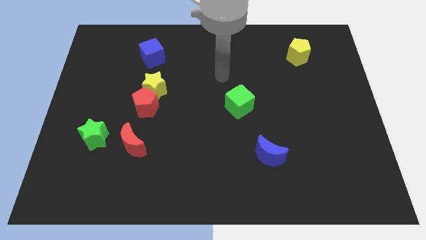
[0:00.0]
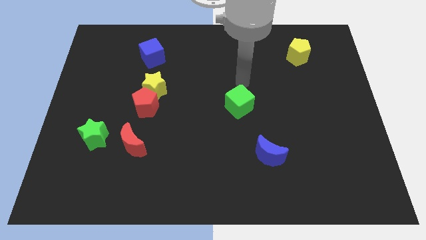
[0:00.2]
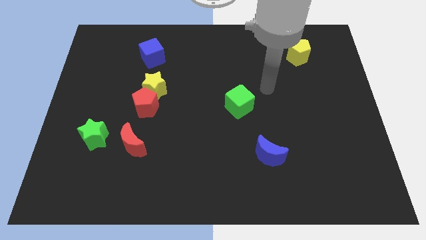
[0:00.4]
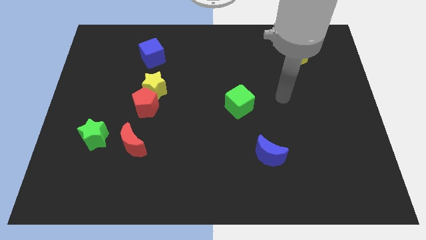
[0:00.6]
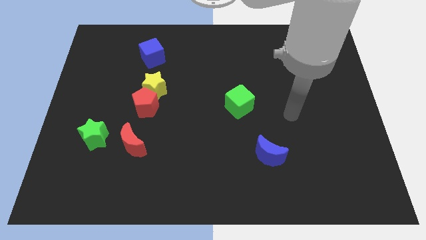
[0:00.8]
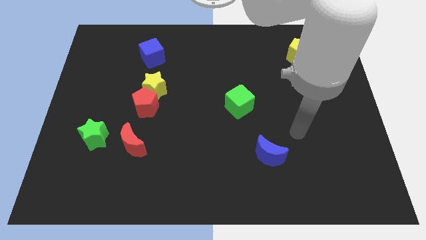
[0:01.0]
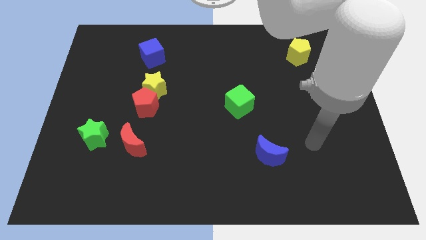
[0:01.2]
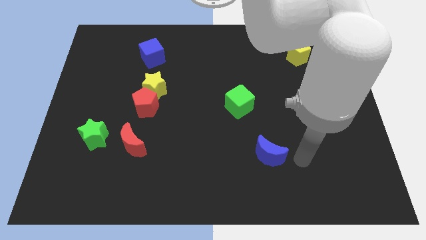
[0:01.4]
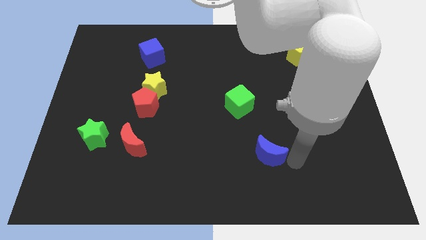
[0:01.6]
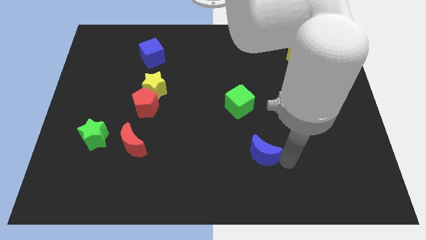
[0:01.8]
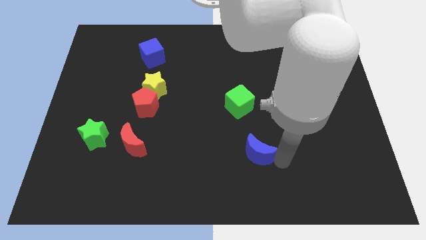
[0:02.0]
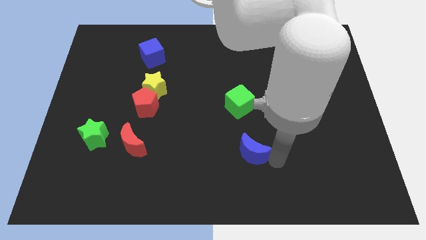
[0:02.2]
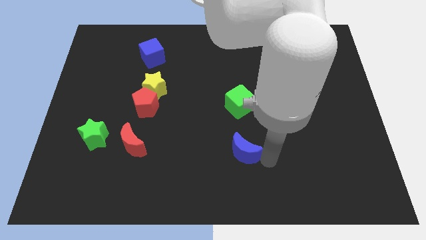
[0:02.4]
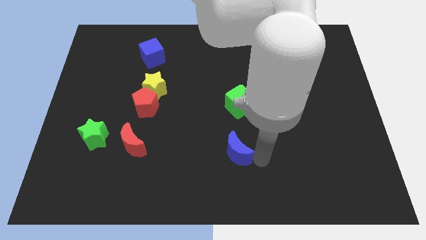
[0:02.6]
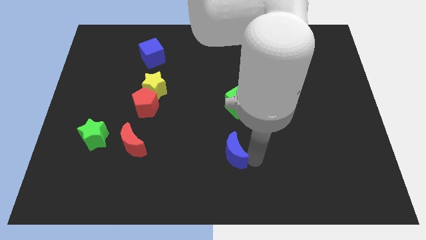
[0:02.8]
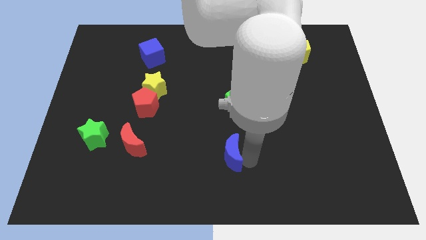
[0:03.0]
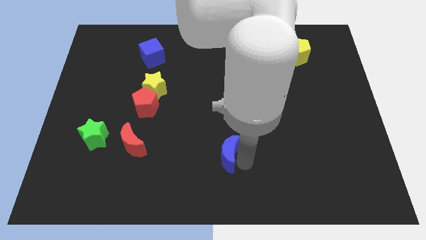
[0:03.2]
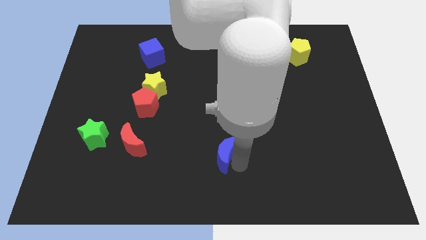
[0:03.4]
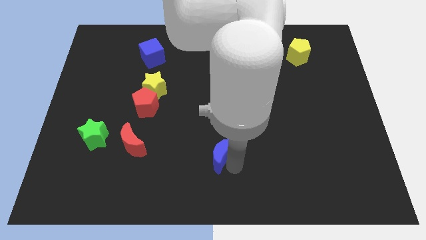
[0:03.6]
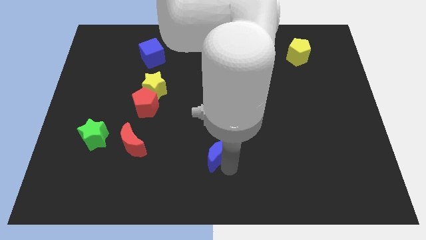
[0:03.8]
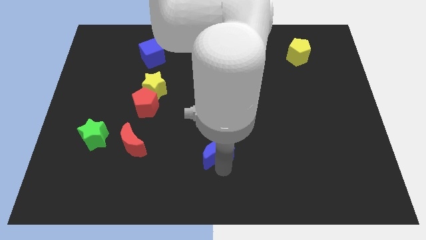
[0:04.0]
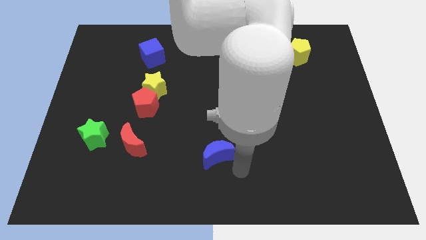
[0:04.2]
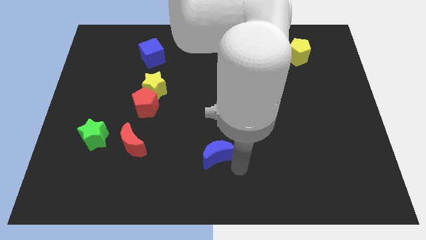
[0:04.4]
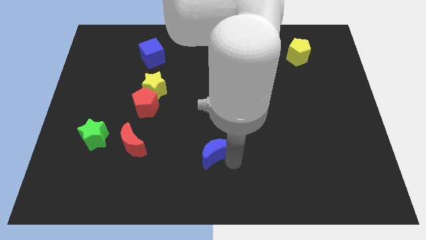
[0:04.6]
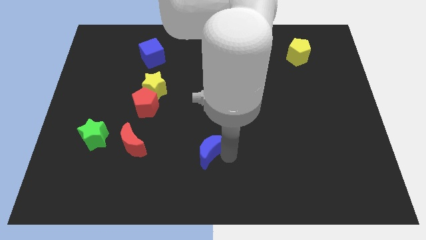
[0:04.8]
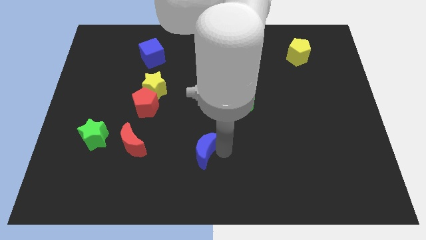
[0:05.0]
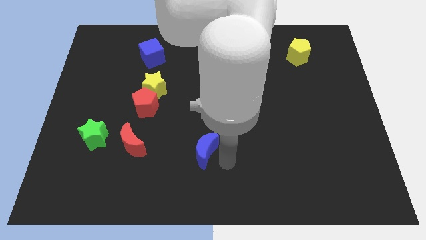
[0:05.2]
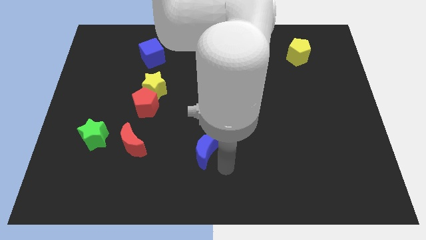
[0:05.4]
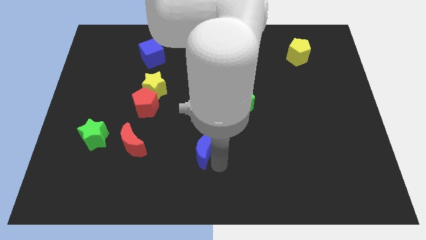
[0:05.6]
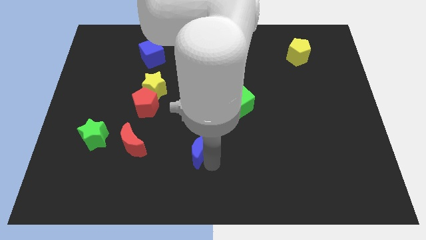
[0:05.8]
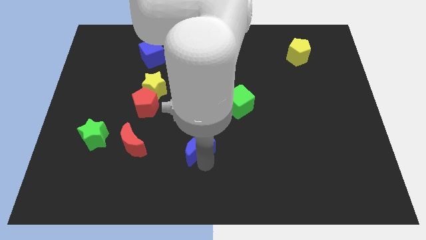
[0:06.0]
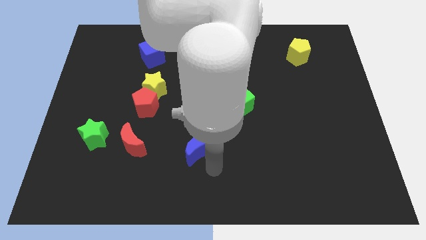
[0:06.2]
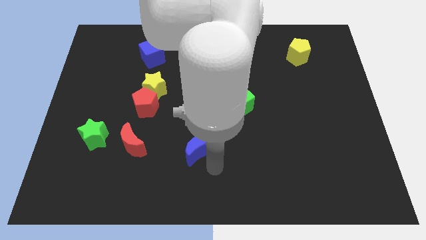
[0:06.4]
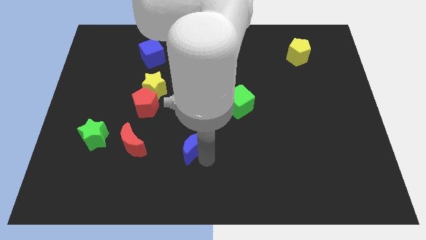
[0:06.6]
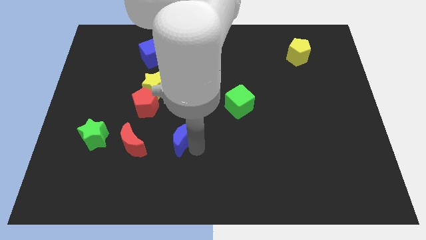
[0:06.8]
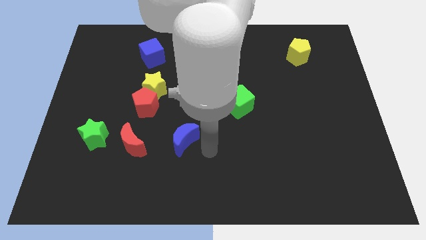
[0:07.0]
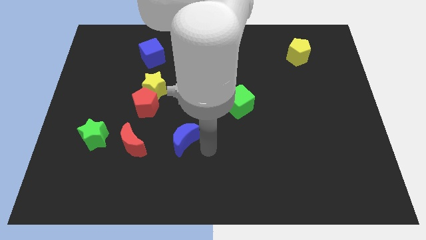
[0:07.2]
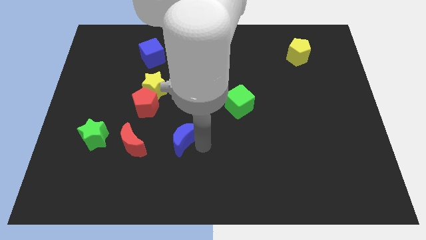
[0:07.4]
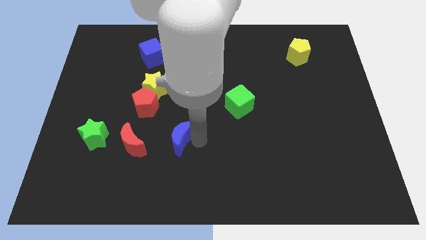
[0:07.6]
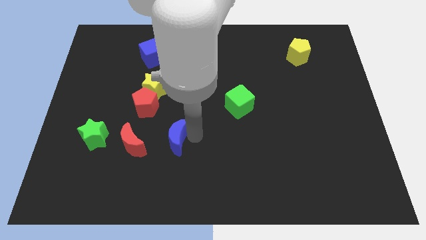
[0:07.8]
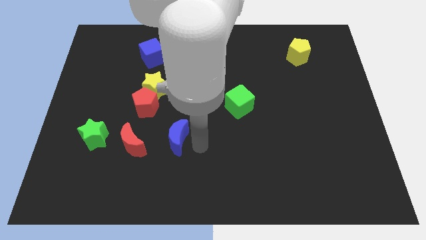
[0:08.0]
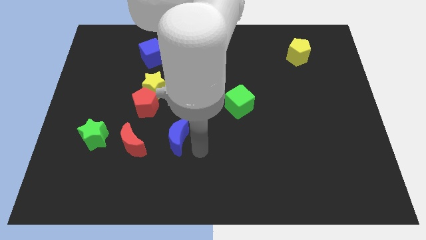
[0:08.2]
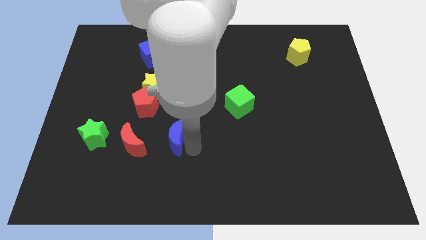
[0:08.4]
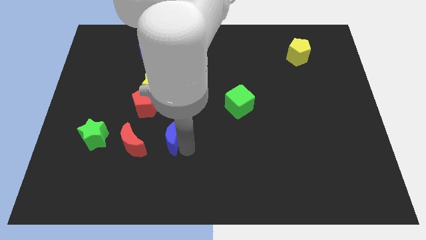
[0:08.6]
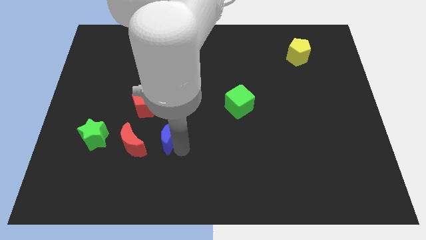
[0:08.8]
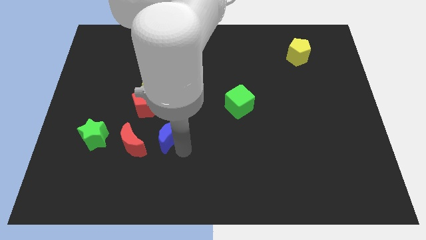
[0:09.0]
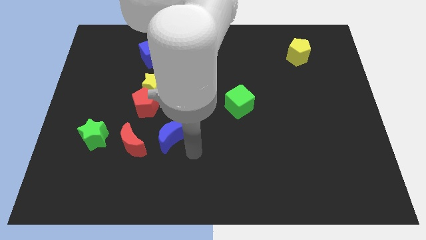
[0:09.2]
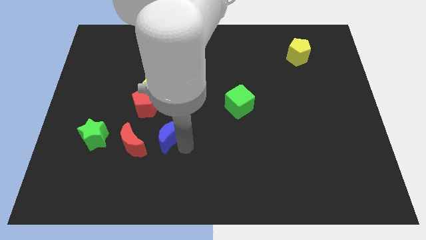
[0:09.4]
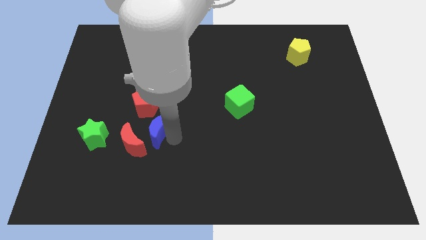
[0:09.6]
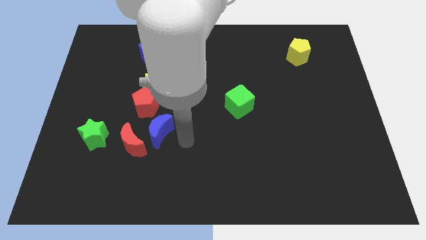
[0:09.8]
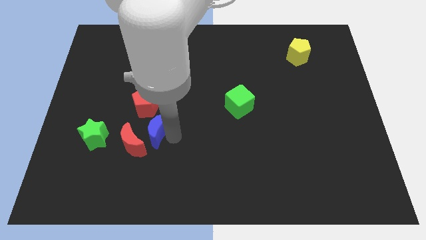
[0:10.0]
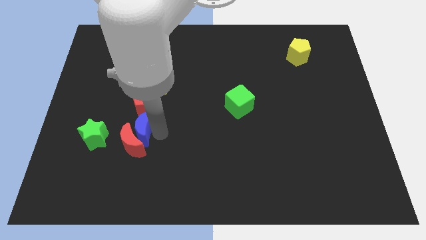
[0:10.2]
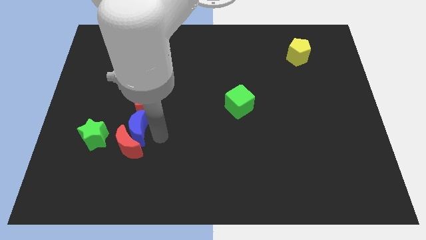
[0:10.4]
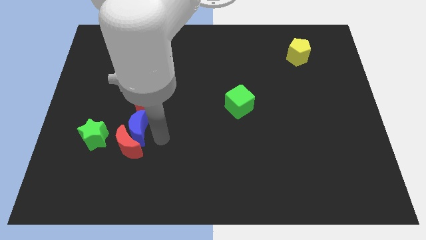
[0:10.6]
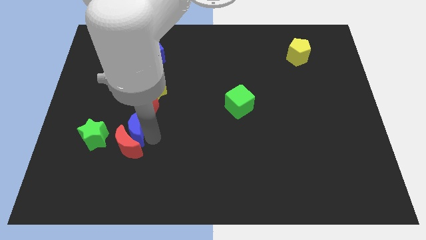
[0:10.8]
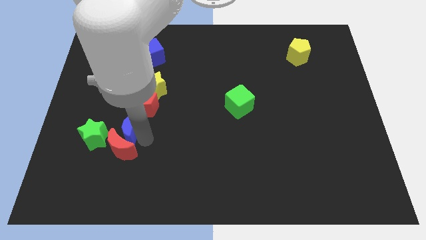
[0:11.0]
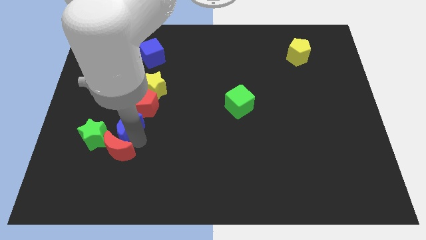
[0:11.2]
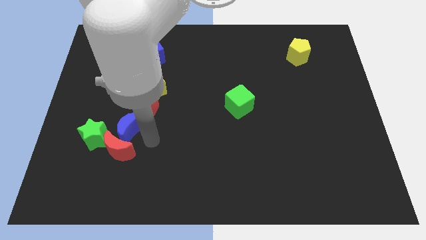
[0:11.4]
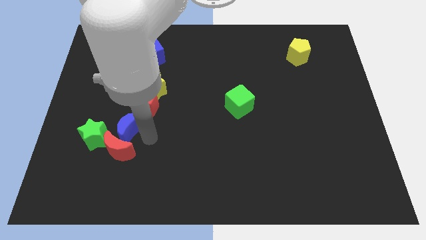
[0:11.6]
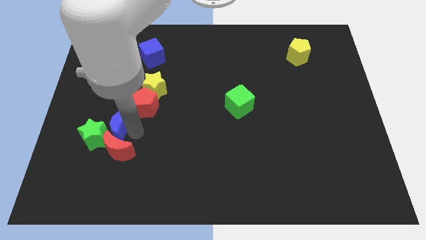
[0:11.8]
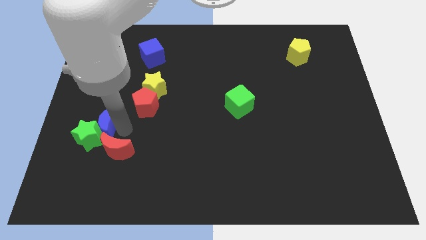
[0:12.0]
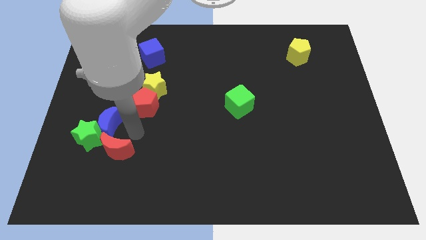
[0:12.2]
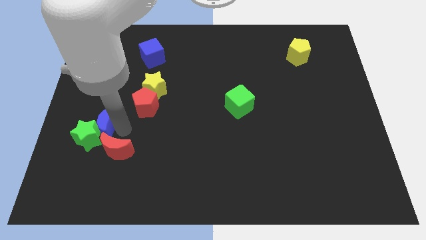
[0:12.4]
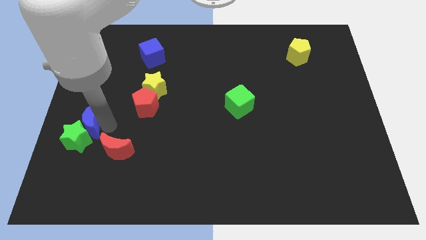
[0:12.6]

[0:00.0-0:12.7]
push the blue moon to the left side
